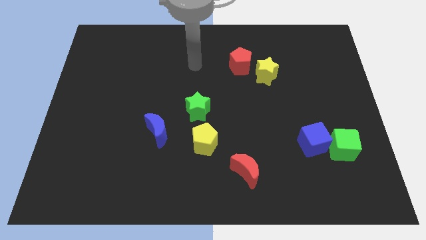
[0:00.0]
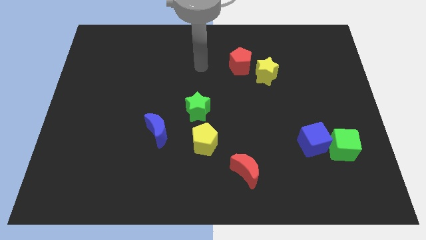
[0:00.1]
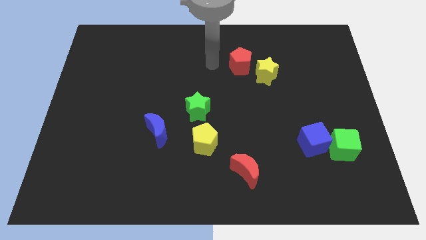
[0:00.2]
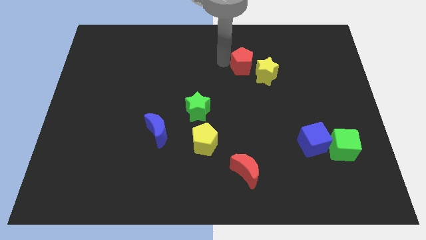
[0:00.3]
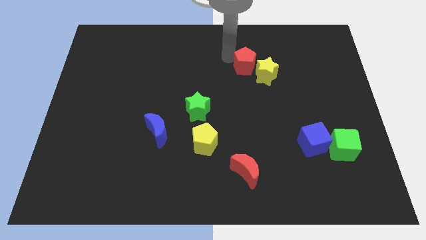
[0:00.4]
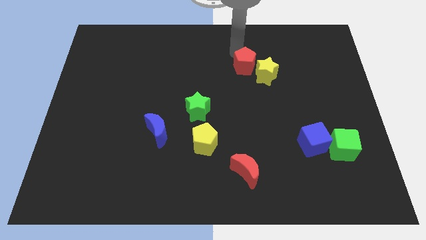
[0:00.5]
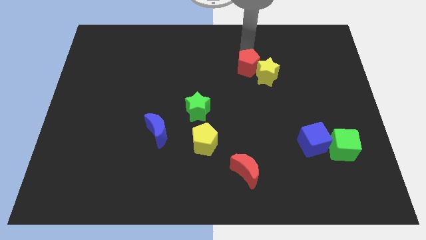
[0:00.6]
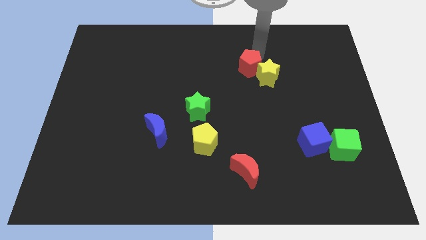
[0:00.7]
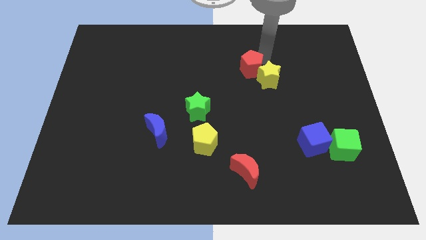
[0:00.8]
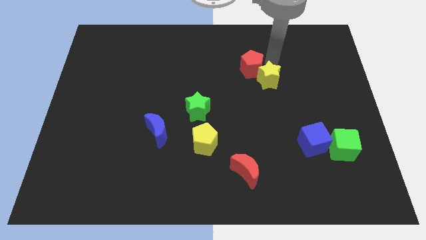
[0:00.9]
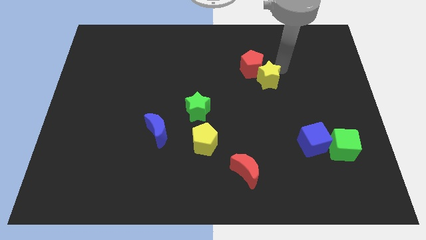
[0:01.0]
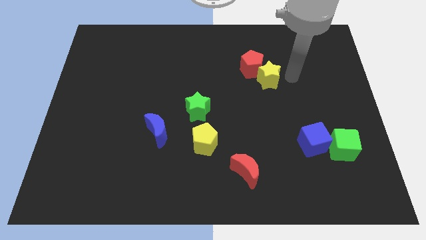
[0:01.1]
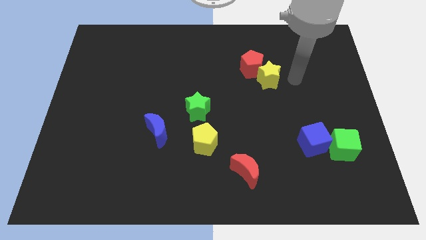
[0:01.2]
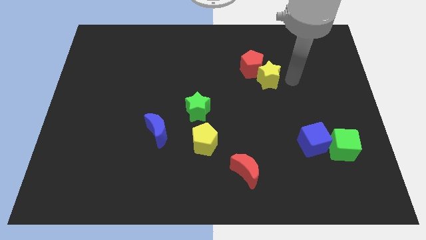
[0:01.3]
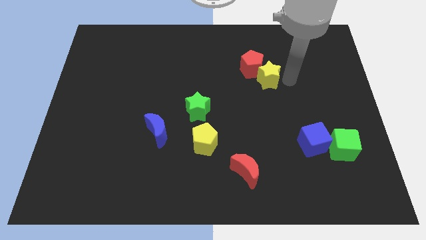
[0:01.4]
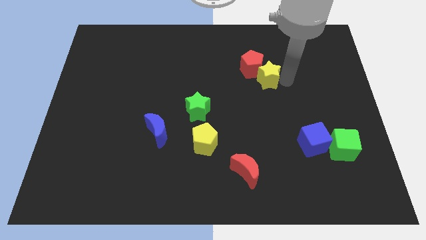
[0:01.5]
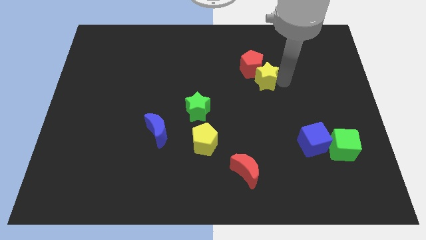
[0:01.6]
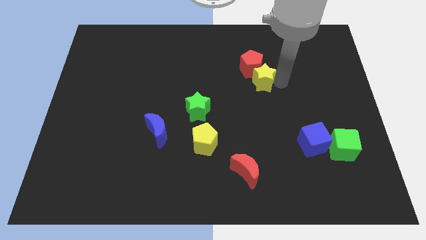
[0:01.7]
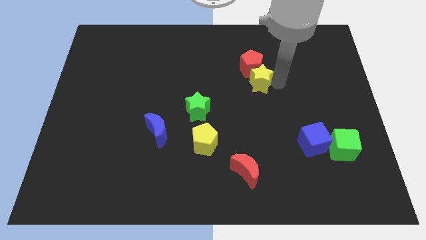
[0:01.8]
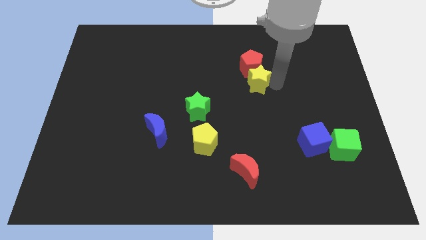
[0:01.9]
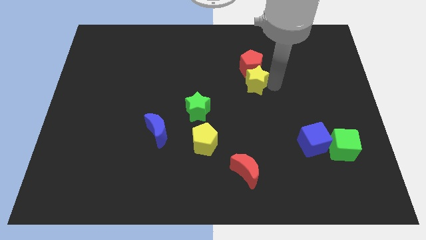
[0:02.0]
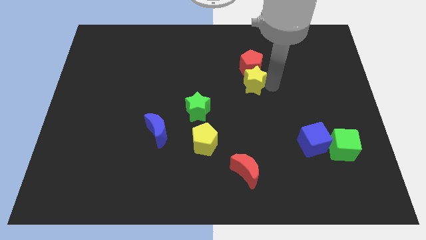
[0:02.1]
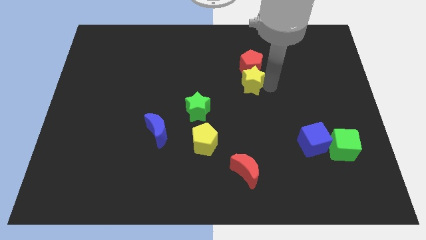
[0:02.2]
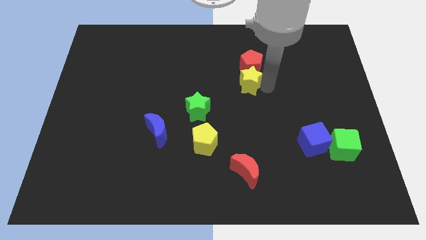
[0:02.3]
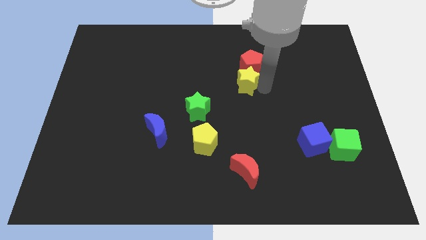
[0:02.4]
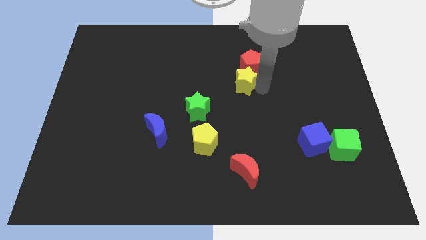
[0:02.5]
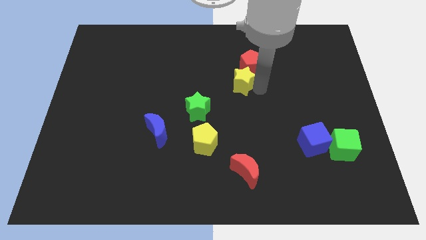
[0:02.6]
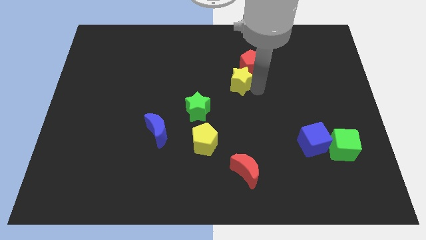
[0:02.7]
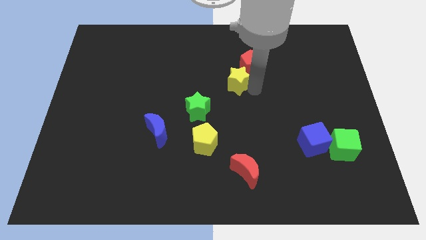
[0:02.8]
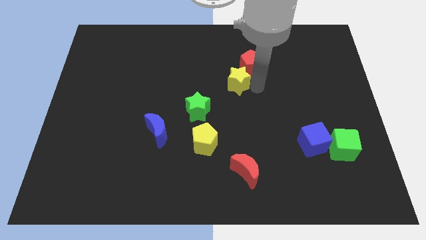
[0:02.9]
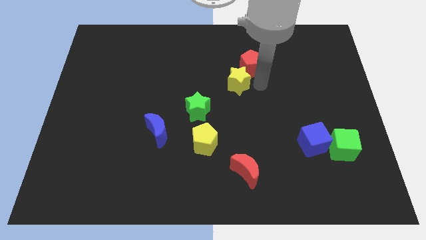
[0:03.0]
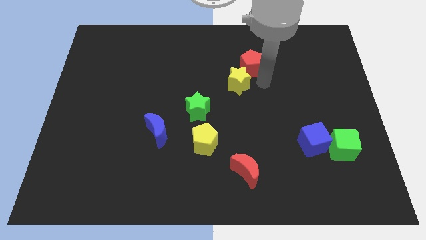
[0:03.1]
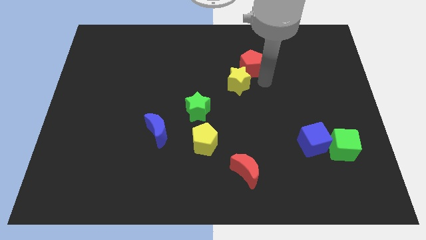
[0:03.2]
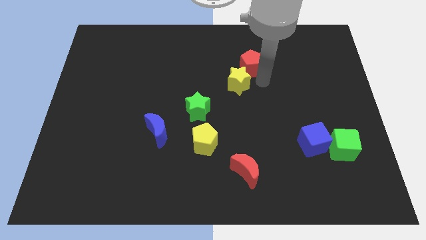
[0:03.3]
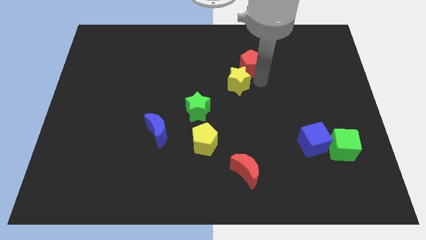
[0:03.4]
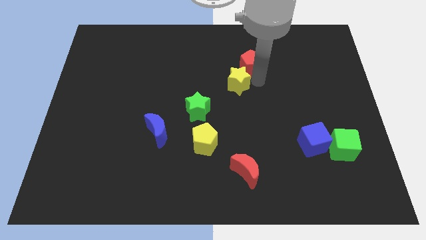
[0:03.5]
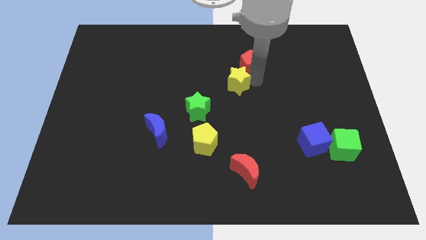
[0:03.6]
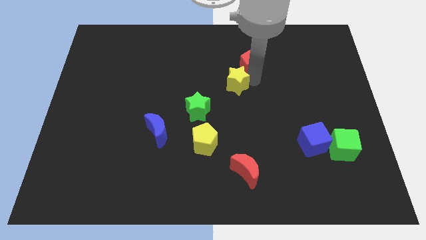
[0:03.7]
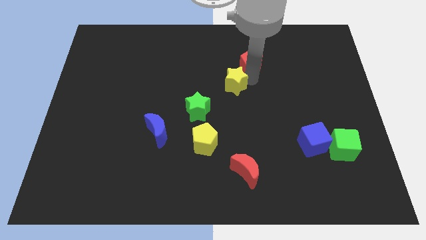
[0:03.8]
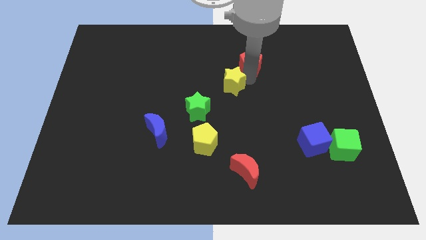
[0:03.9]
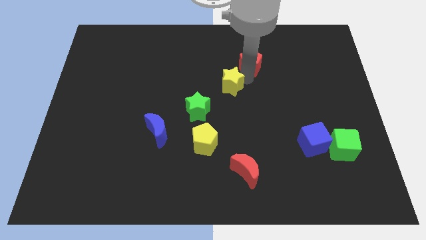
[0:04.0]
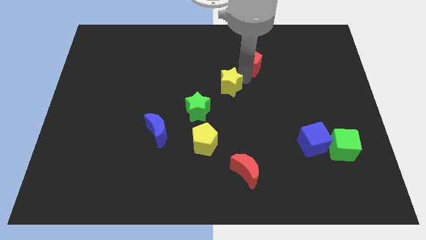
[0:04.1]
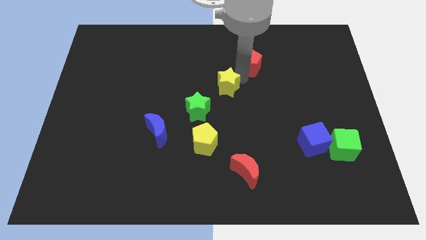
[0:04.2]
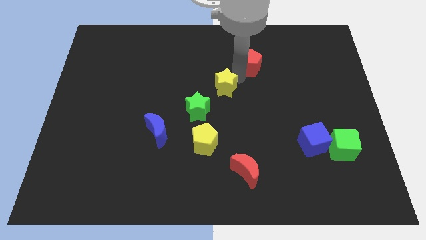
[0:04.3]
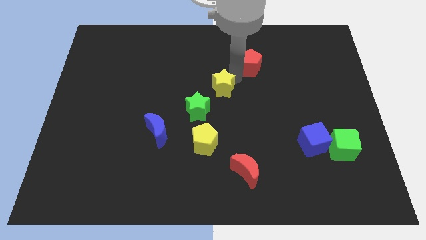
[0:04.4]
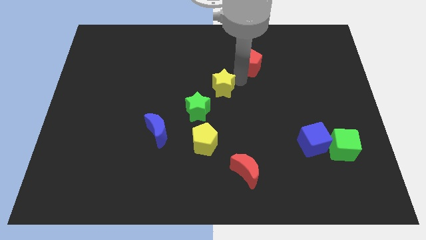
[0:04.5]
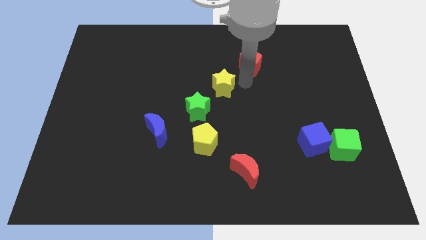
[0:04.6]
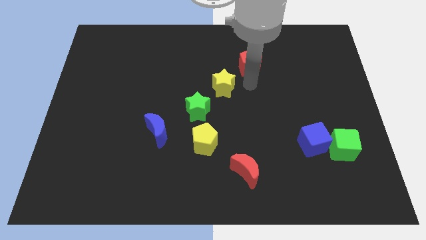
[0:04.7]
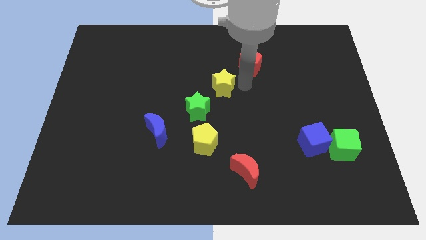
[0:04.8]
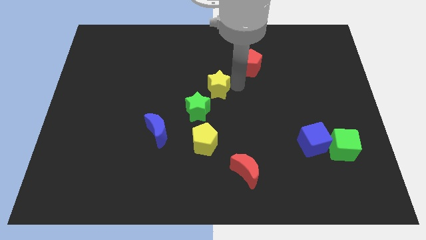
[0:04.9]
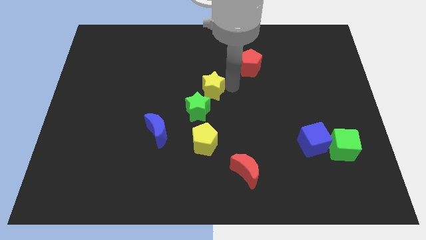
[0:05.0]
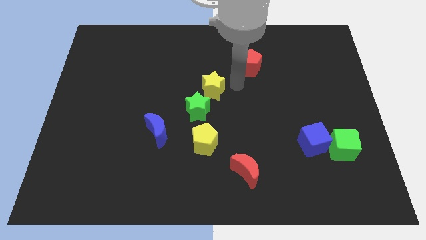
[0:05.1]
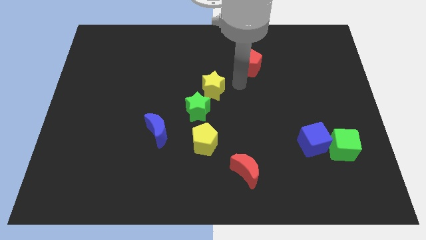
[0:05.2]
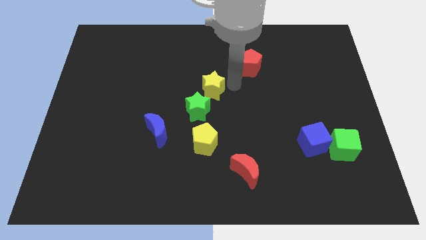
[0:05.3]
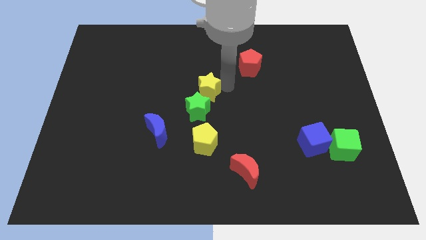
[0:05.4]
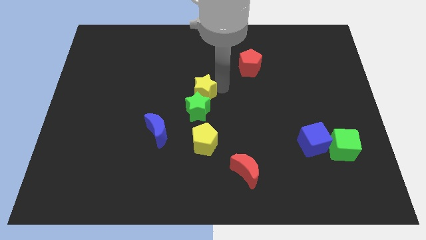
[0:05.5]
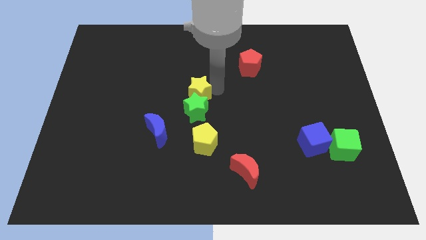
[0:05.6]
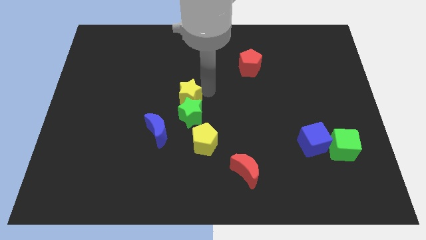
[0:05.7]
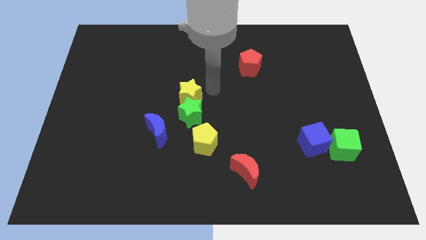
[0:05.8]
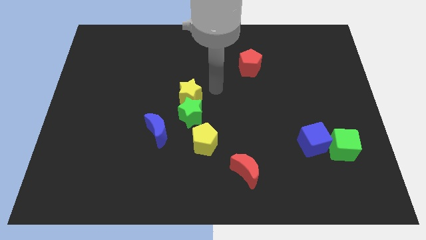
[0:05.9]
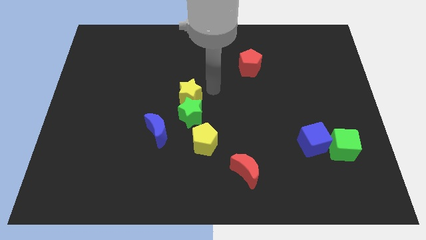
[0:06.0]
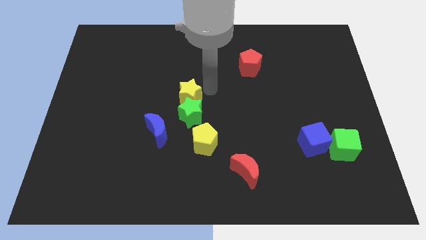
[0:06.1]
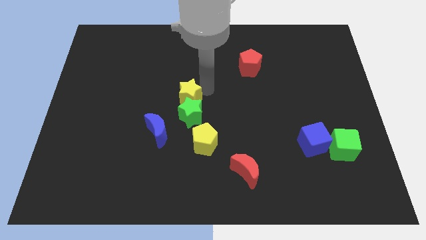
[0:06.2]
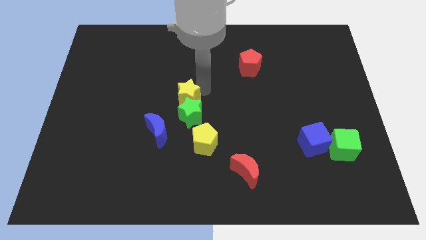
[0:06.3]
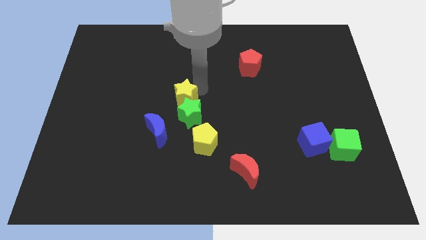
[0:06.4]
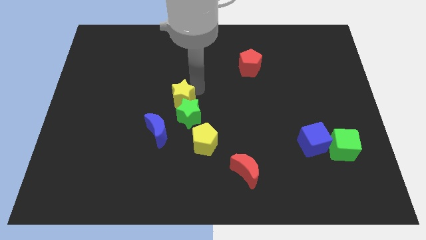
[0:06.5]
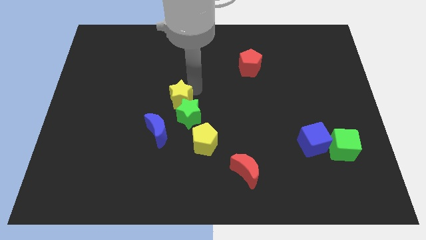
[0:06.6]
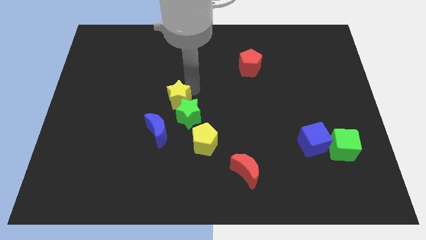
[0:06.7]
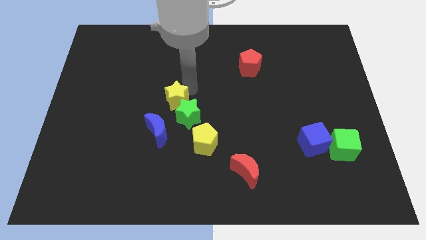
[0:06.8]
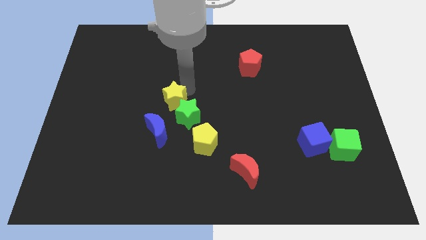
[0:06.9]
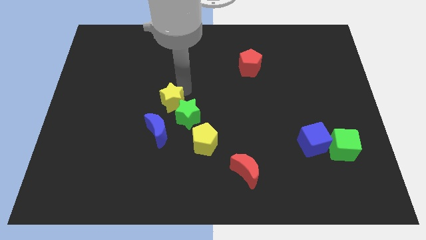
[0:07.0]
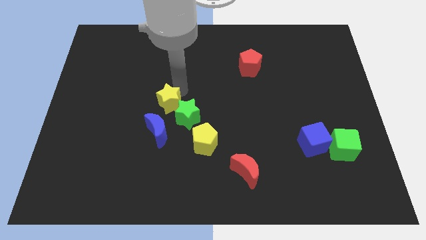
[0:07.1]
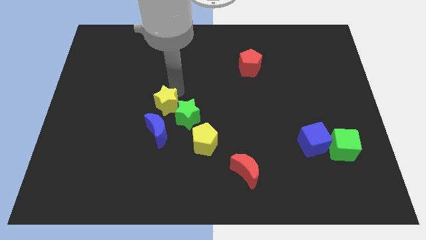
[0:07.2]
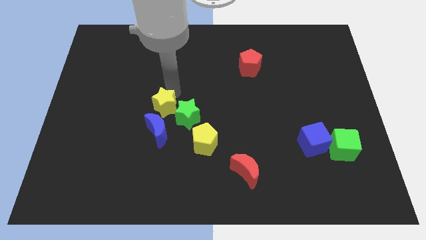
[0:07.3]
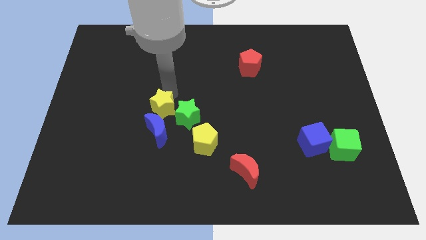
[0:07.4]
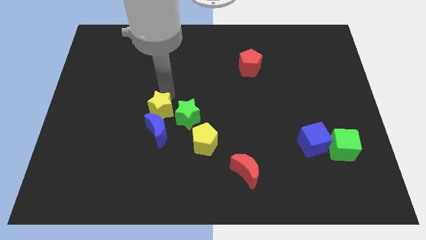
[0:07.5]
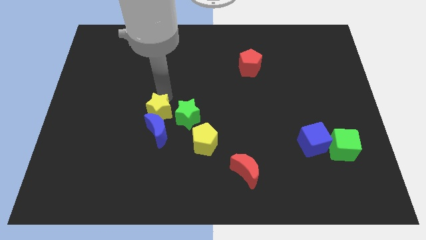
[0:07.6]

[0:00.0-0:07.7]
put the yellow star close to the blue moon

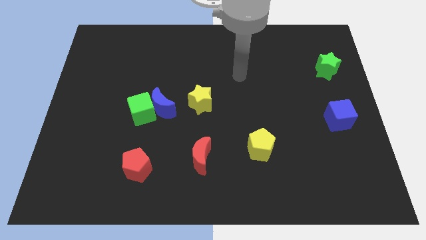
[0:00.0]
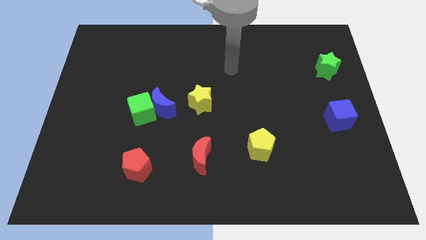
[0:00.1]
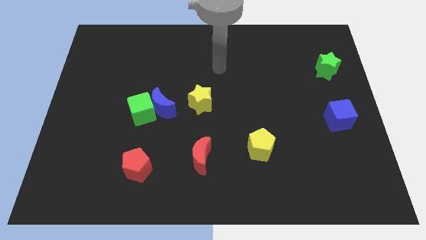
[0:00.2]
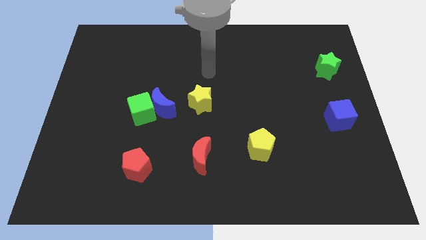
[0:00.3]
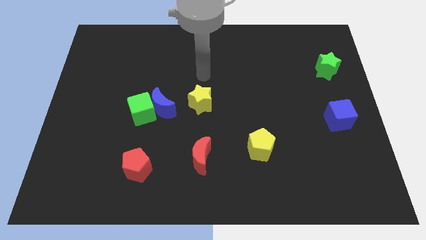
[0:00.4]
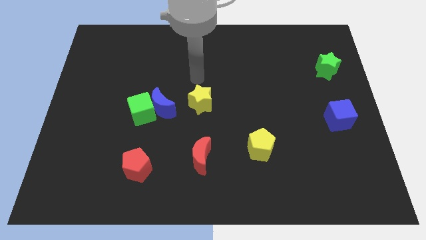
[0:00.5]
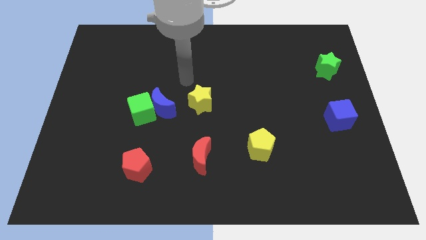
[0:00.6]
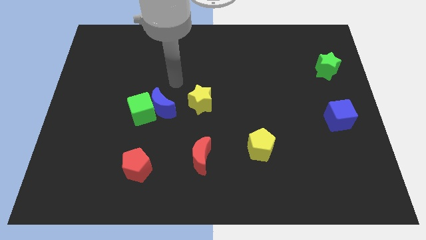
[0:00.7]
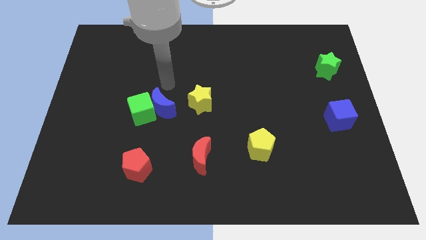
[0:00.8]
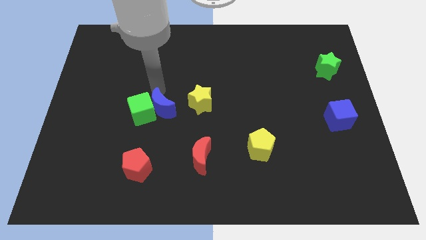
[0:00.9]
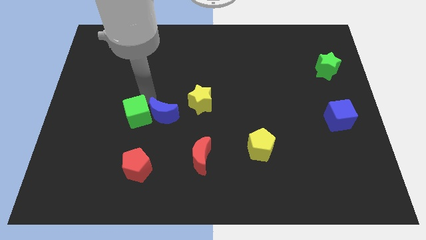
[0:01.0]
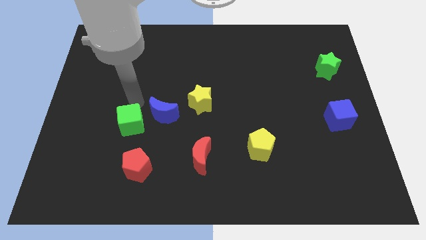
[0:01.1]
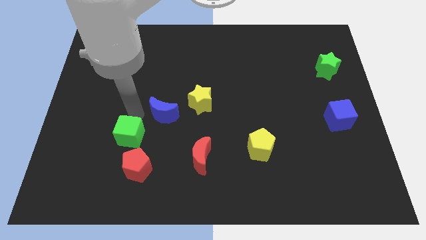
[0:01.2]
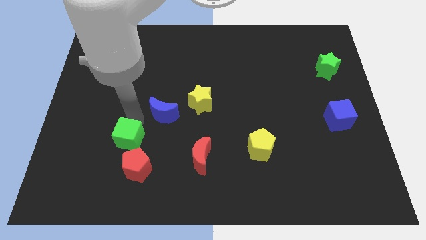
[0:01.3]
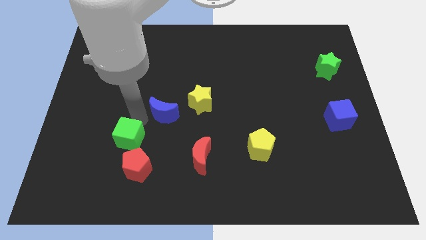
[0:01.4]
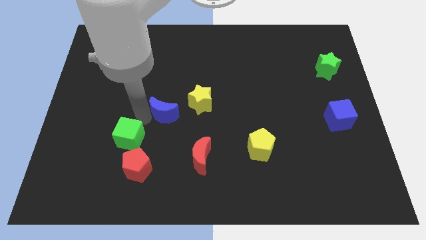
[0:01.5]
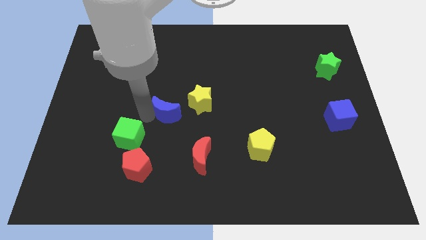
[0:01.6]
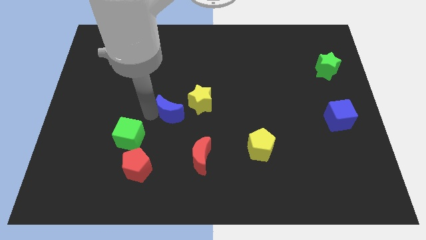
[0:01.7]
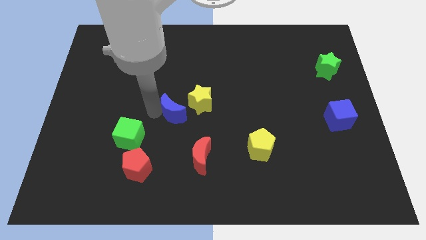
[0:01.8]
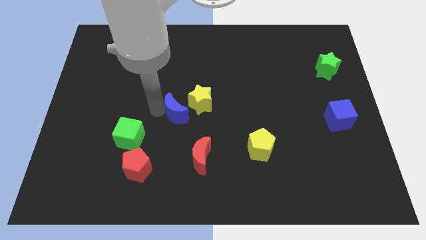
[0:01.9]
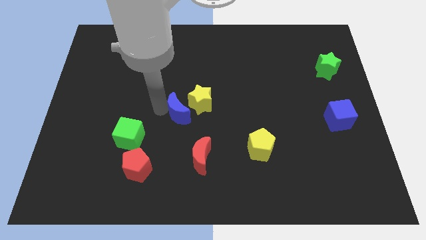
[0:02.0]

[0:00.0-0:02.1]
slide the blue moon next to the yellow star
